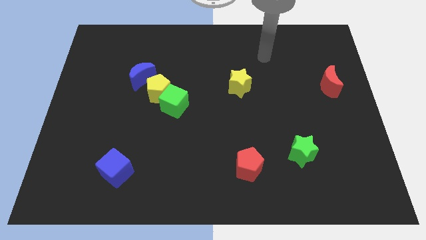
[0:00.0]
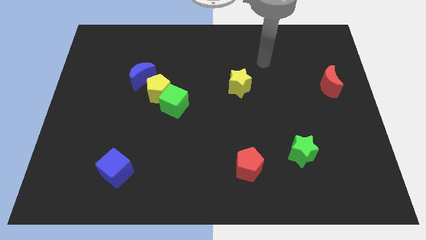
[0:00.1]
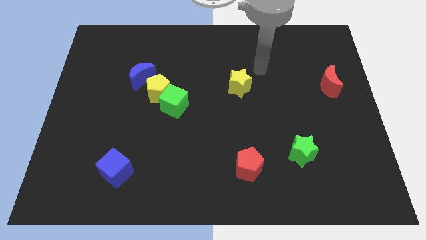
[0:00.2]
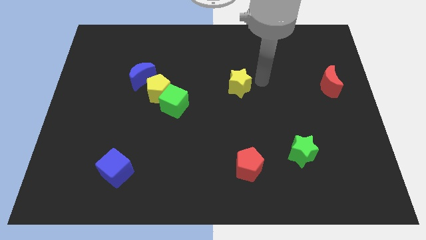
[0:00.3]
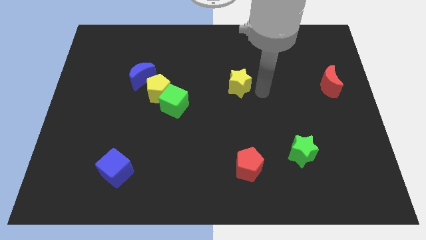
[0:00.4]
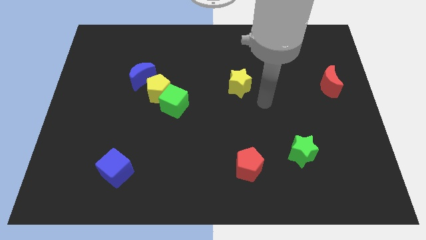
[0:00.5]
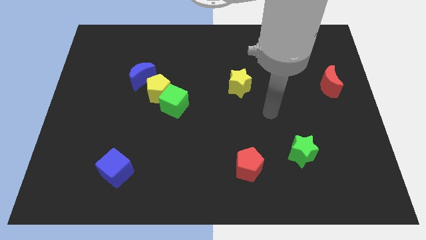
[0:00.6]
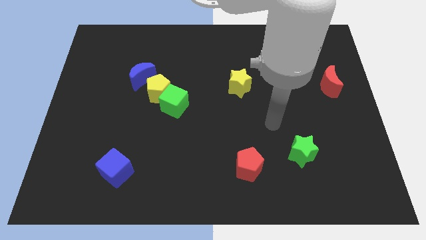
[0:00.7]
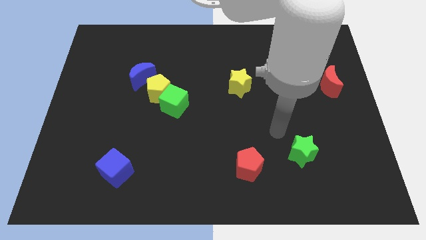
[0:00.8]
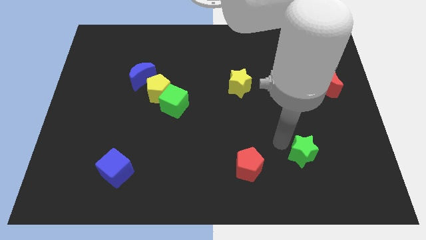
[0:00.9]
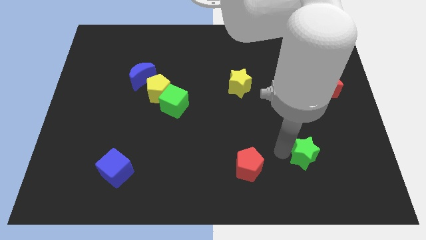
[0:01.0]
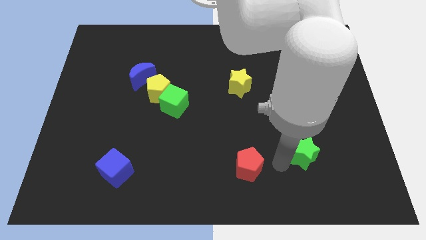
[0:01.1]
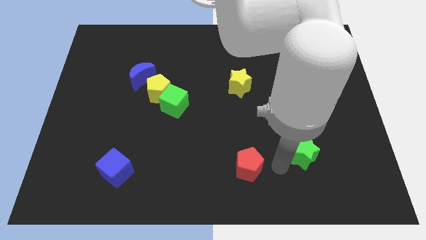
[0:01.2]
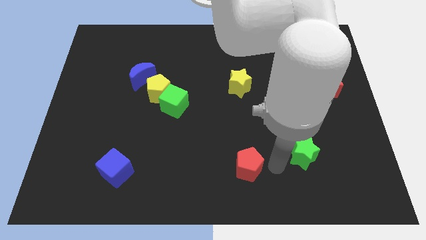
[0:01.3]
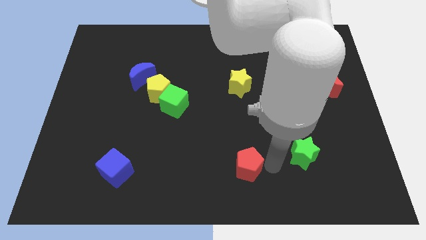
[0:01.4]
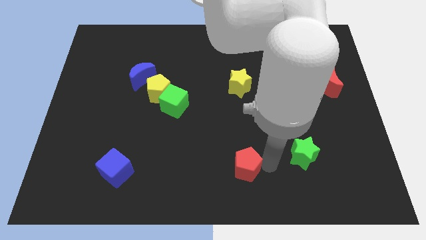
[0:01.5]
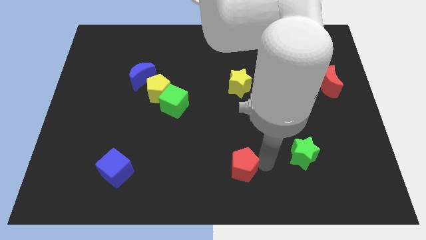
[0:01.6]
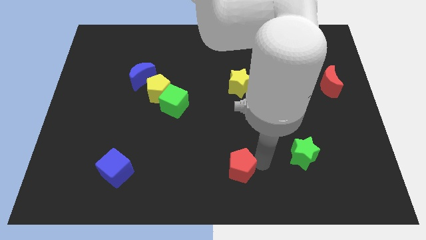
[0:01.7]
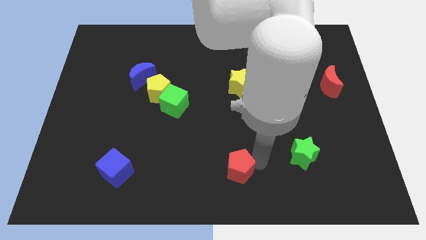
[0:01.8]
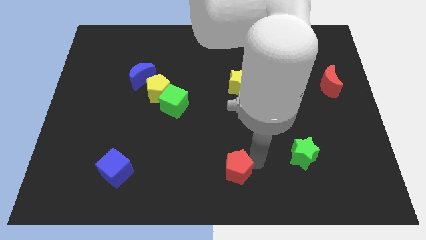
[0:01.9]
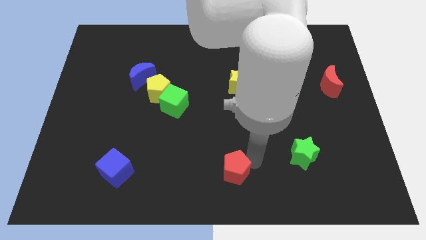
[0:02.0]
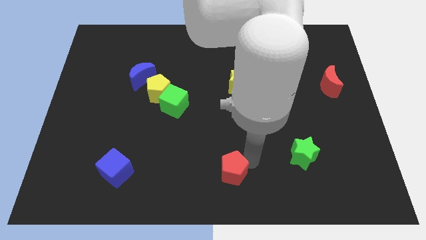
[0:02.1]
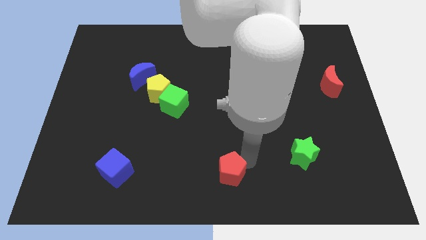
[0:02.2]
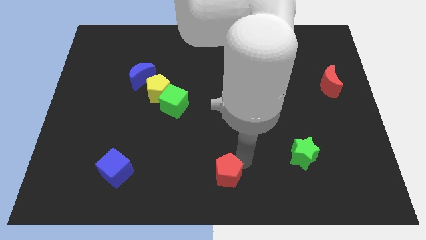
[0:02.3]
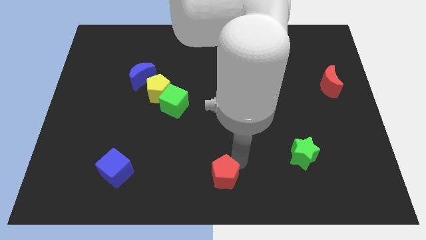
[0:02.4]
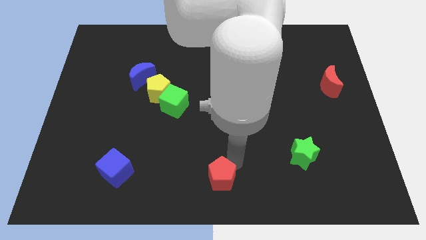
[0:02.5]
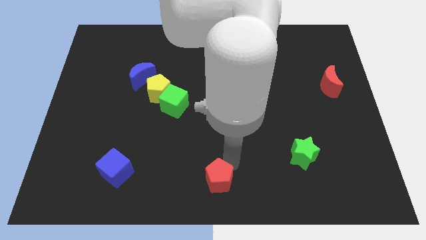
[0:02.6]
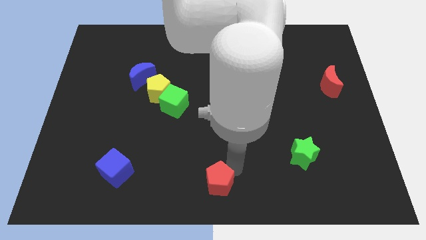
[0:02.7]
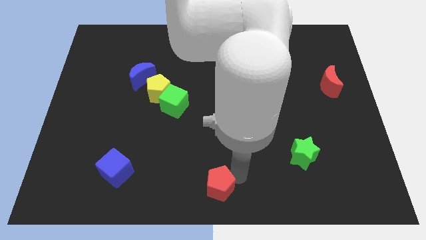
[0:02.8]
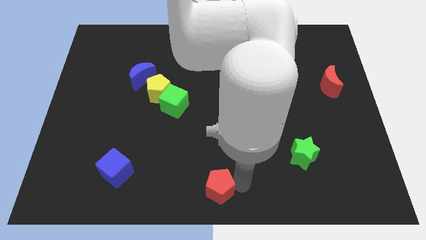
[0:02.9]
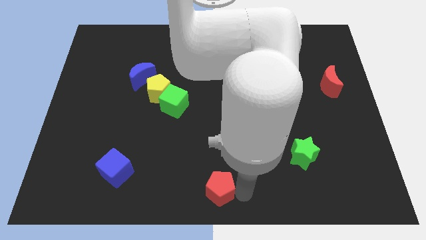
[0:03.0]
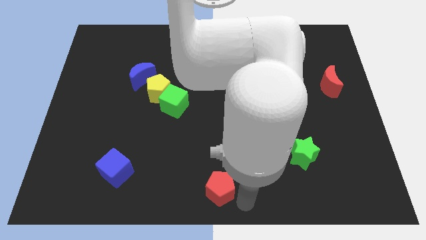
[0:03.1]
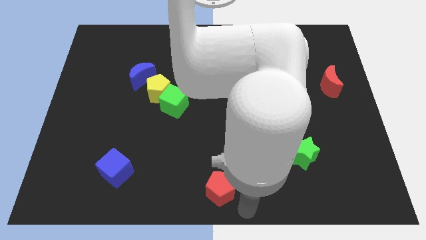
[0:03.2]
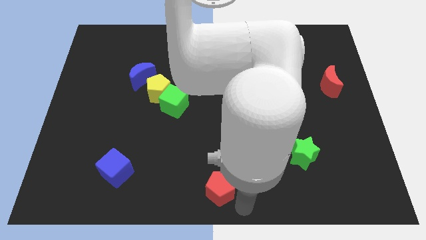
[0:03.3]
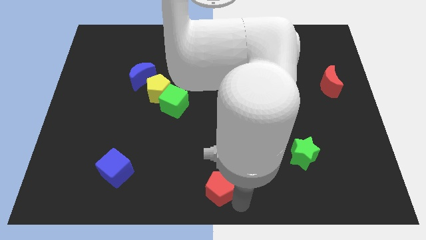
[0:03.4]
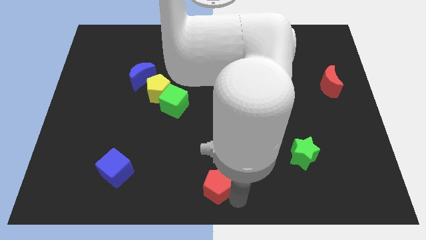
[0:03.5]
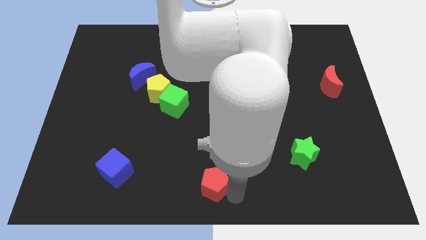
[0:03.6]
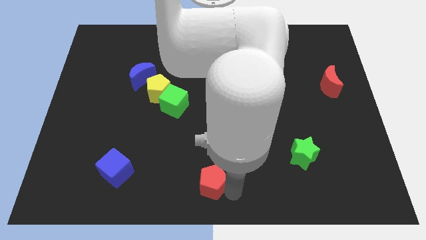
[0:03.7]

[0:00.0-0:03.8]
slightly slide the red pentagon to the left

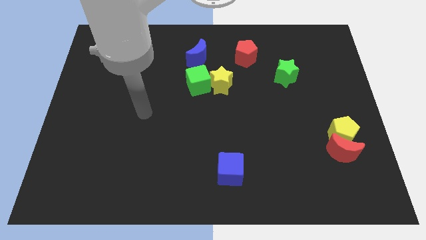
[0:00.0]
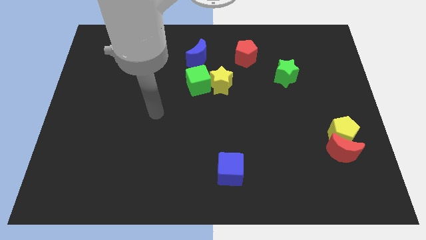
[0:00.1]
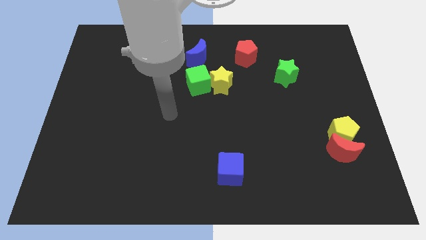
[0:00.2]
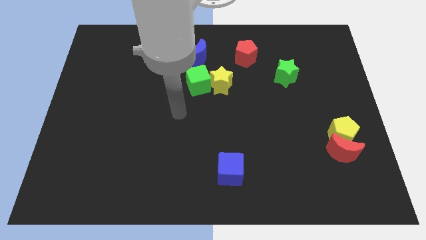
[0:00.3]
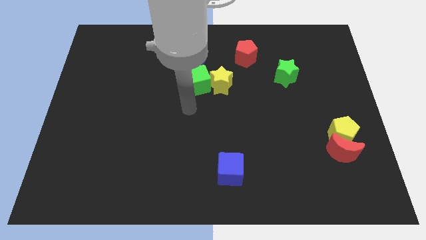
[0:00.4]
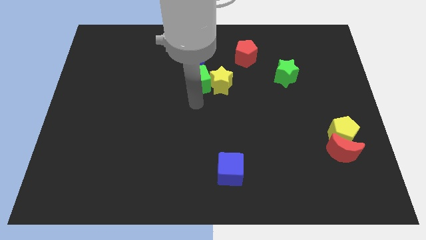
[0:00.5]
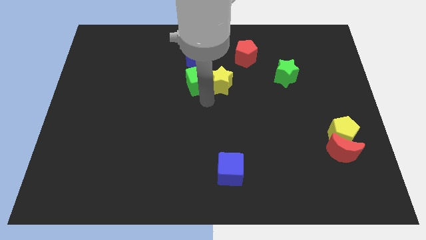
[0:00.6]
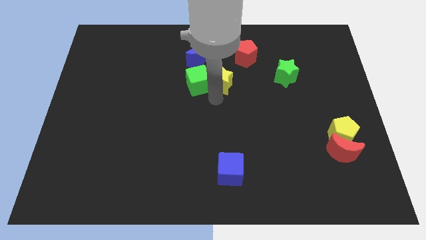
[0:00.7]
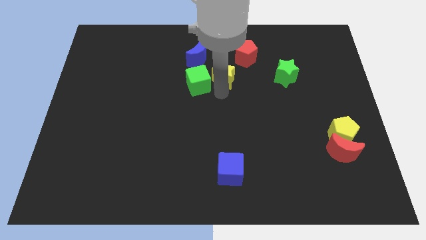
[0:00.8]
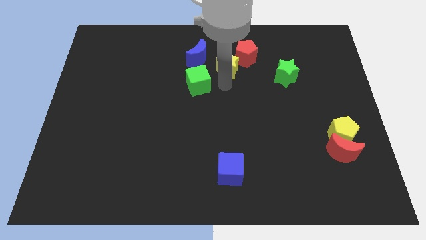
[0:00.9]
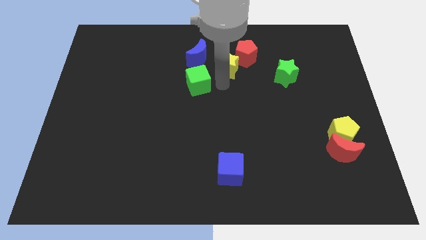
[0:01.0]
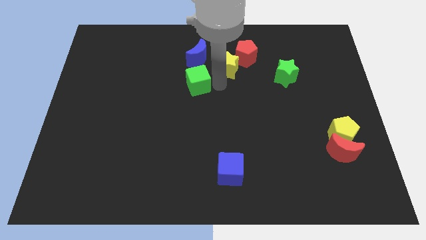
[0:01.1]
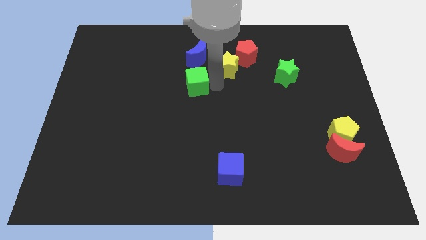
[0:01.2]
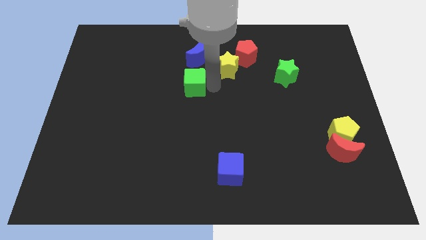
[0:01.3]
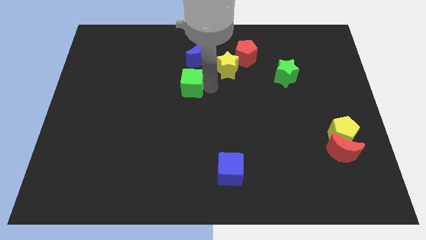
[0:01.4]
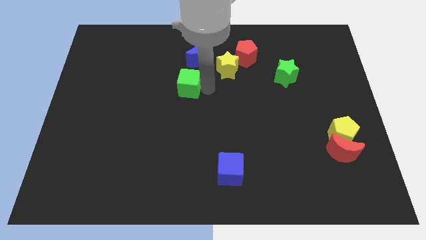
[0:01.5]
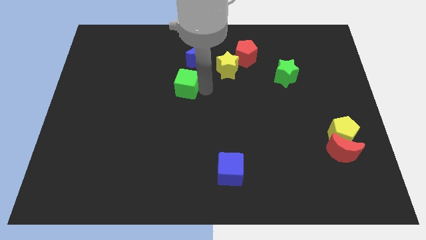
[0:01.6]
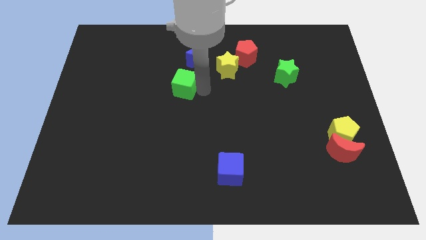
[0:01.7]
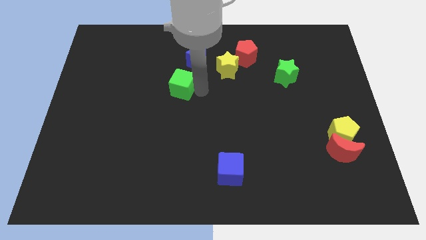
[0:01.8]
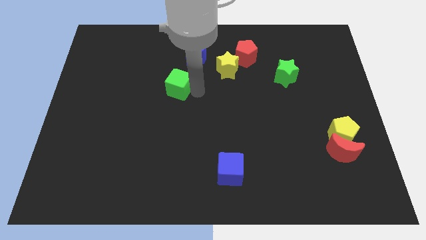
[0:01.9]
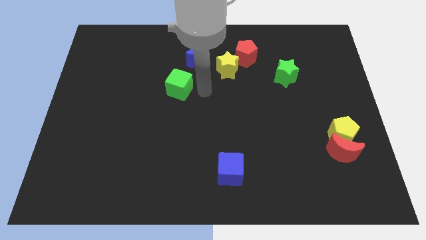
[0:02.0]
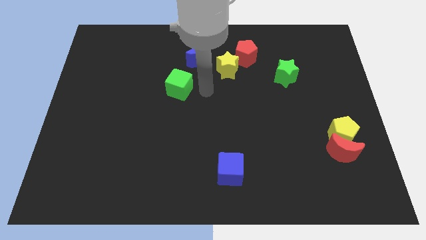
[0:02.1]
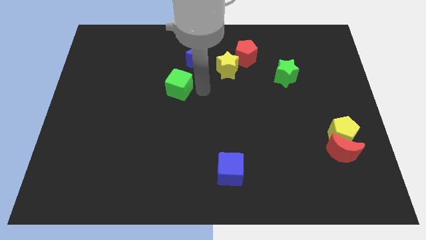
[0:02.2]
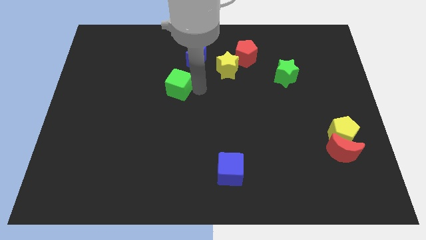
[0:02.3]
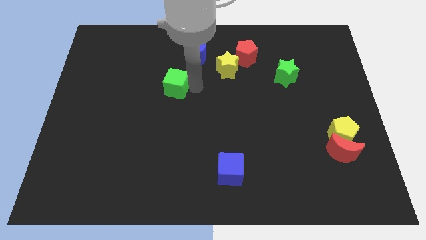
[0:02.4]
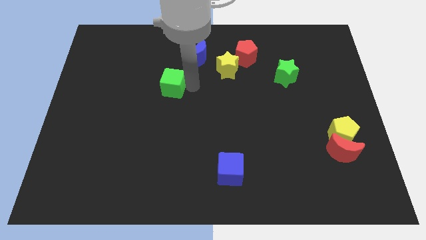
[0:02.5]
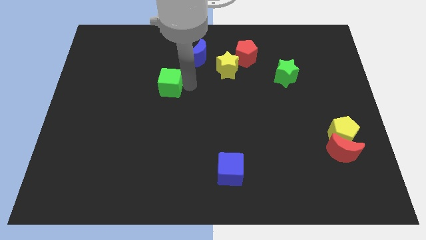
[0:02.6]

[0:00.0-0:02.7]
slide the green cube to the left a little

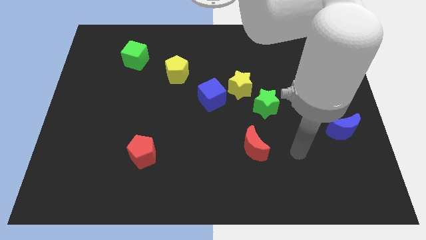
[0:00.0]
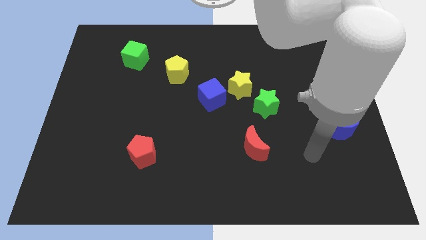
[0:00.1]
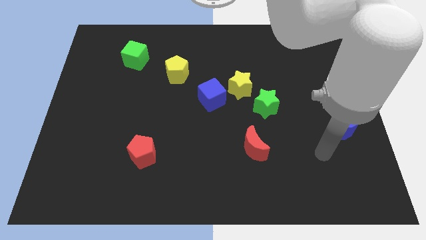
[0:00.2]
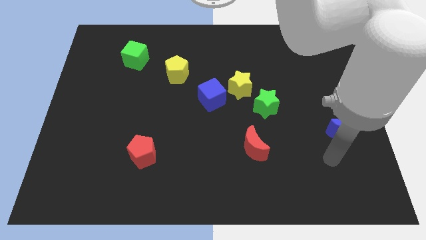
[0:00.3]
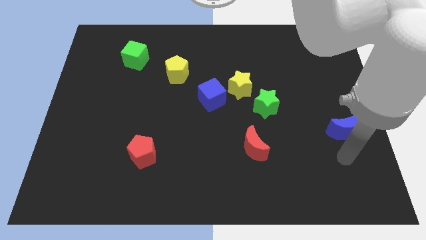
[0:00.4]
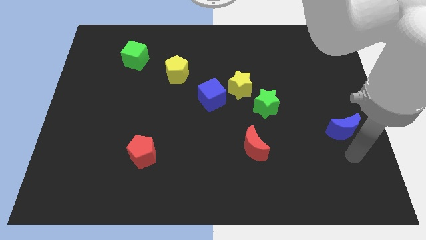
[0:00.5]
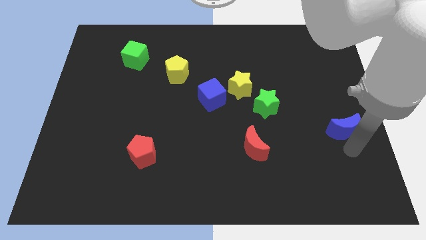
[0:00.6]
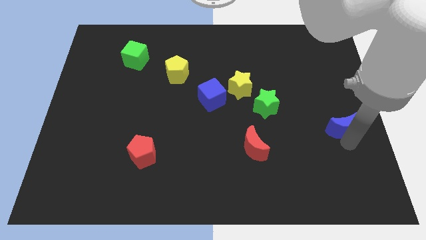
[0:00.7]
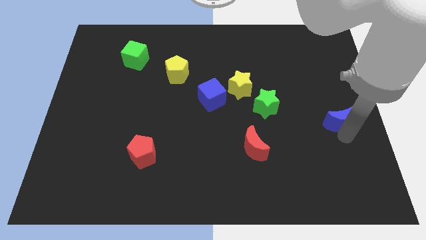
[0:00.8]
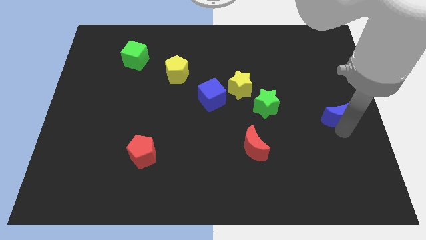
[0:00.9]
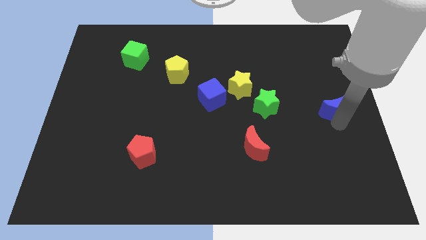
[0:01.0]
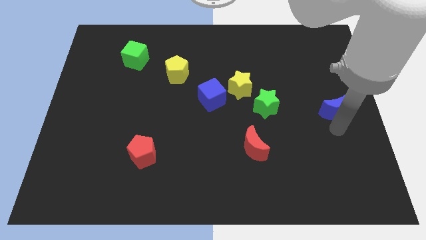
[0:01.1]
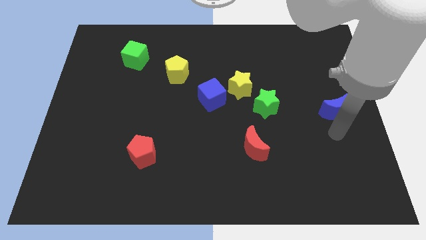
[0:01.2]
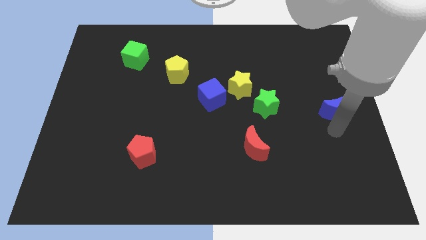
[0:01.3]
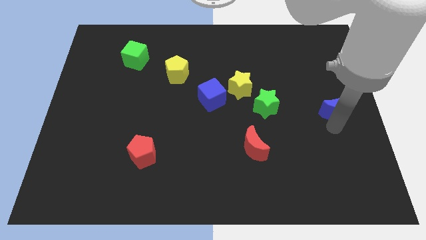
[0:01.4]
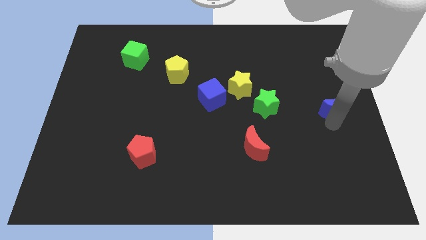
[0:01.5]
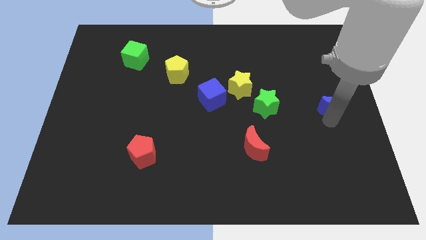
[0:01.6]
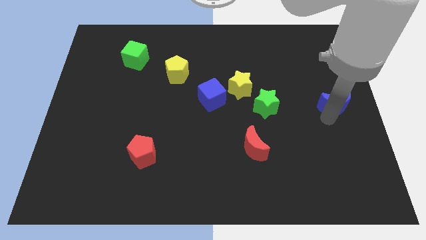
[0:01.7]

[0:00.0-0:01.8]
slide the blue moon up a little
